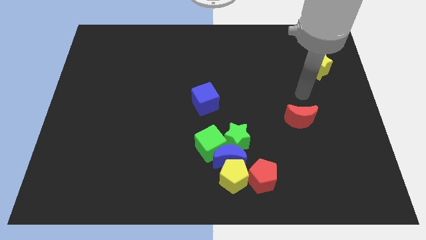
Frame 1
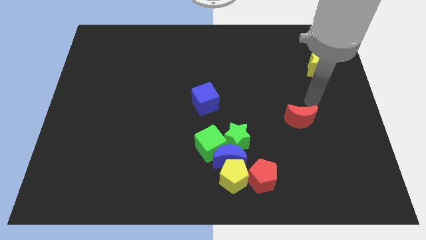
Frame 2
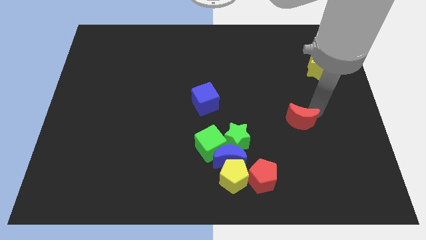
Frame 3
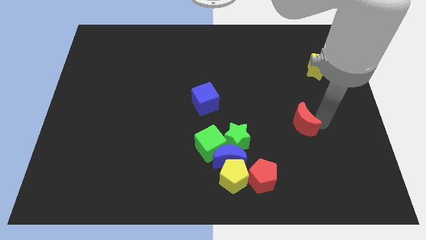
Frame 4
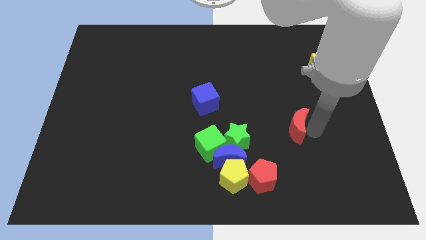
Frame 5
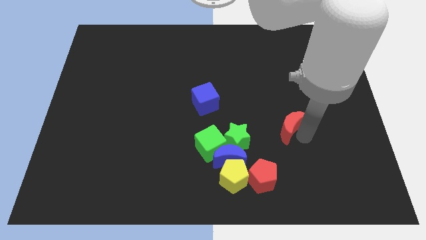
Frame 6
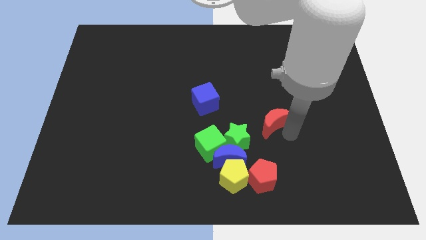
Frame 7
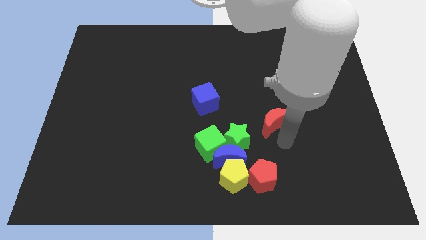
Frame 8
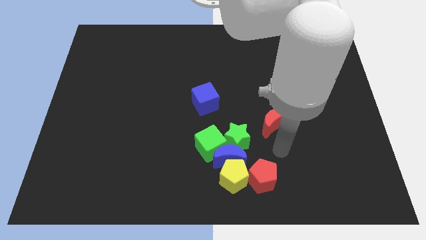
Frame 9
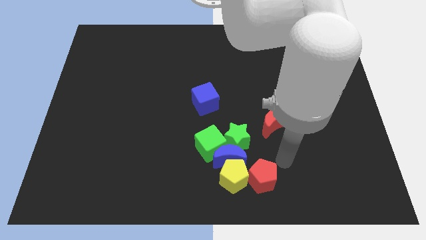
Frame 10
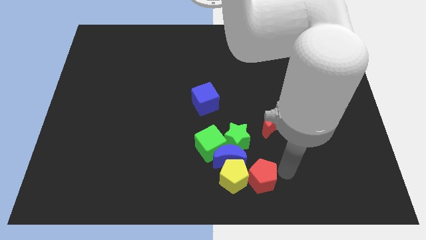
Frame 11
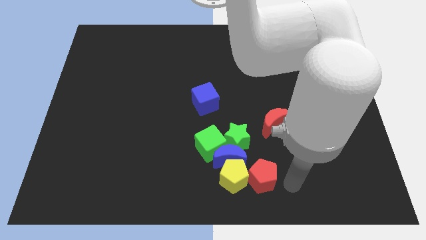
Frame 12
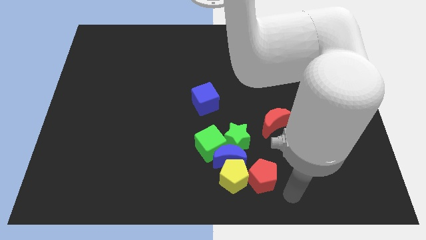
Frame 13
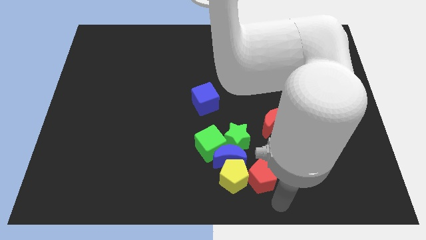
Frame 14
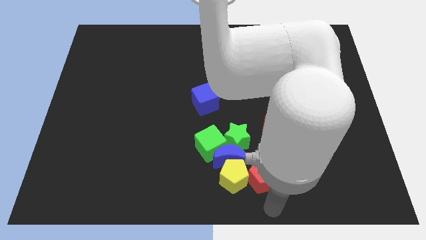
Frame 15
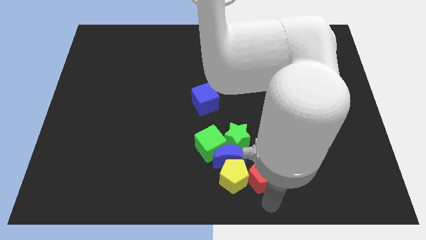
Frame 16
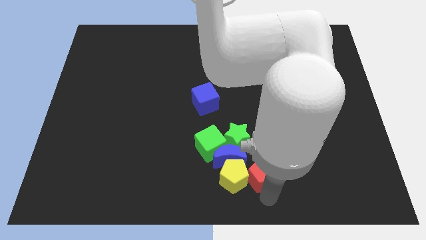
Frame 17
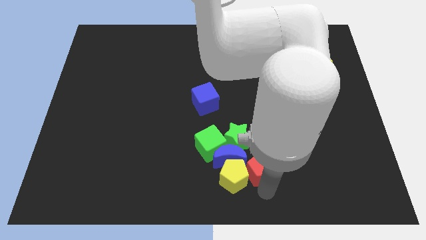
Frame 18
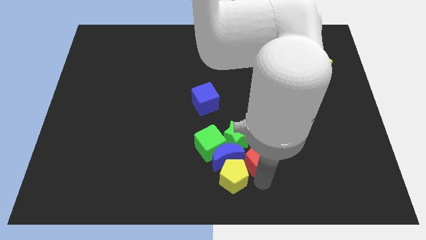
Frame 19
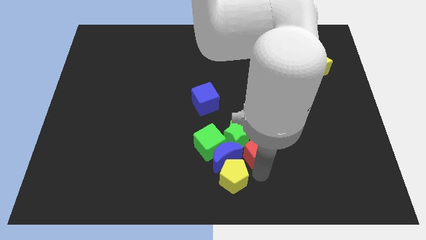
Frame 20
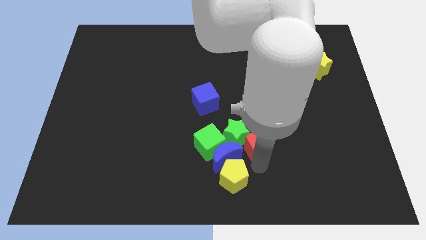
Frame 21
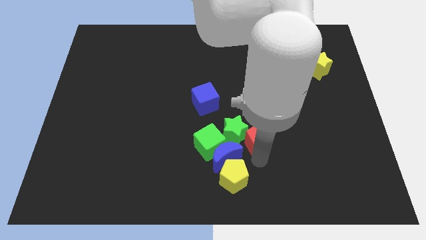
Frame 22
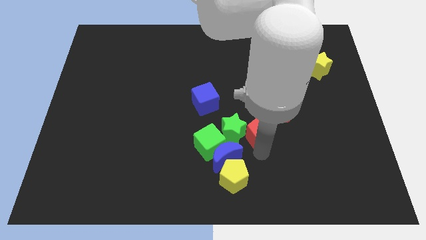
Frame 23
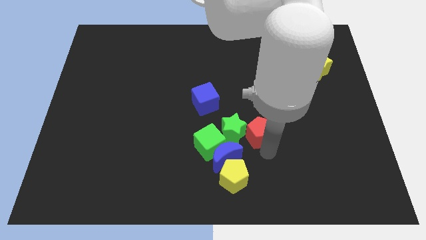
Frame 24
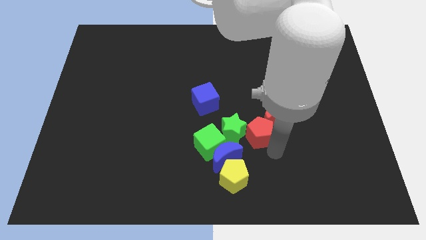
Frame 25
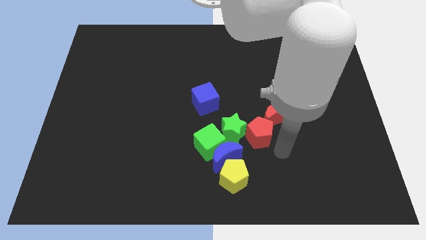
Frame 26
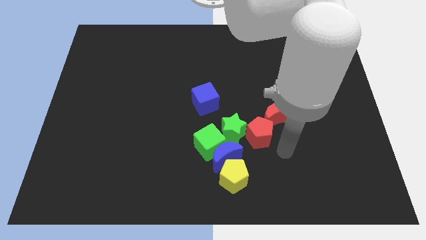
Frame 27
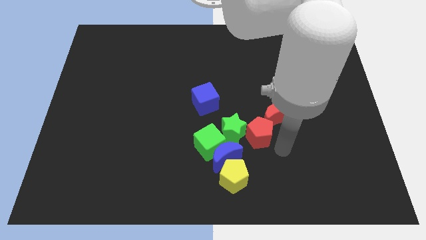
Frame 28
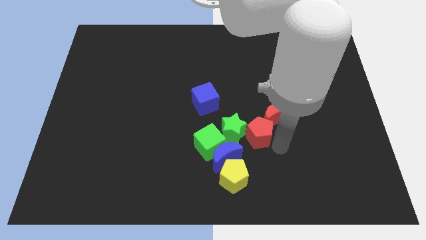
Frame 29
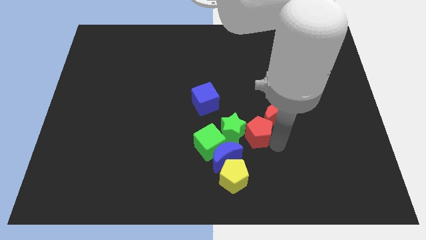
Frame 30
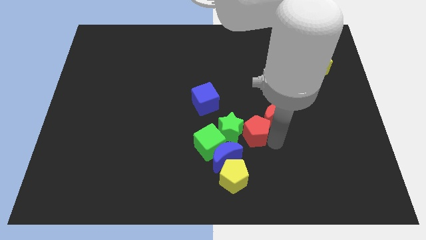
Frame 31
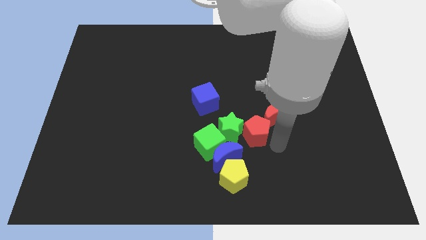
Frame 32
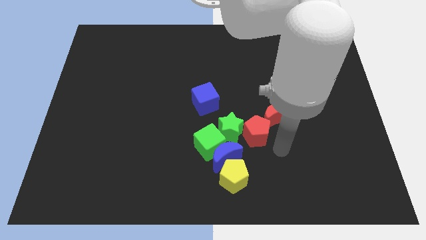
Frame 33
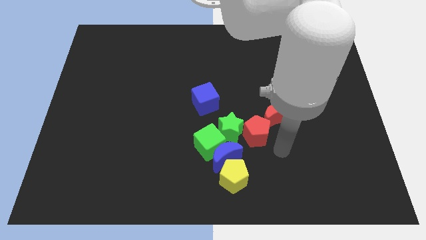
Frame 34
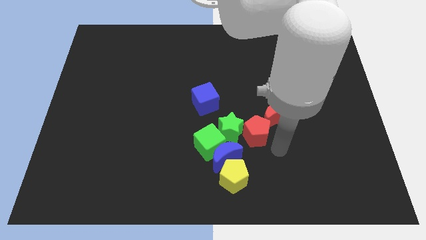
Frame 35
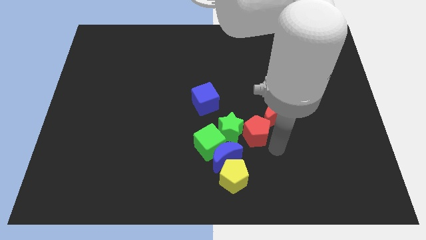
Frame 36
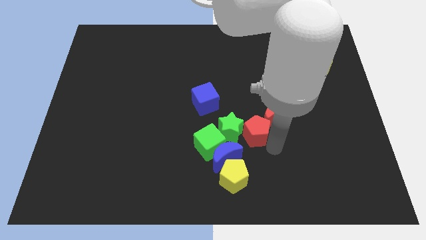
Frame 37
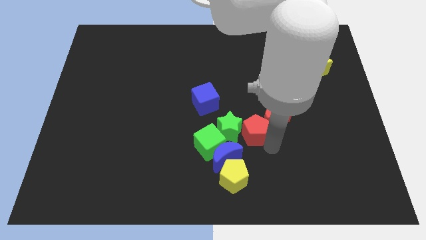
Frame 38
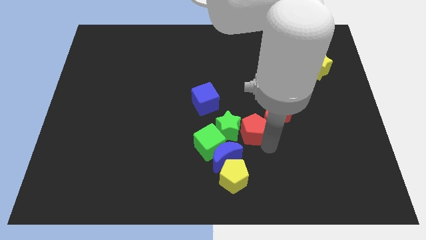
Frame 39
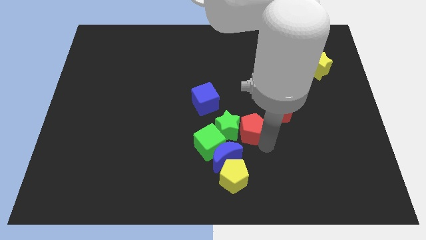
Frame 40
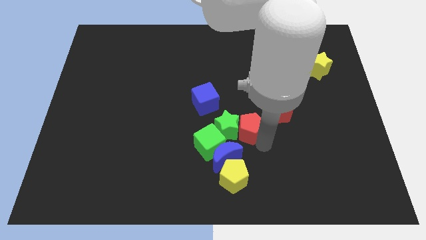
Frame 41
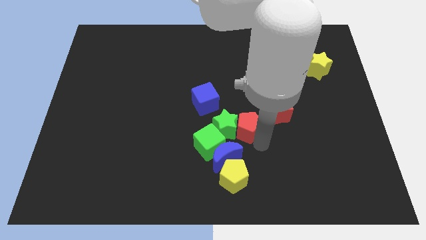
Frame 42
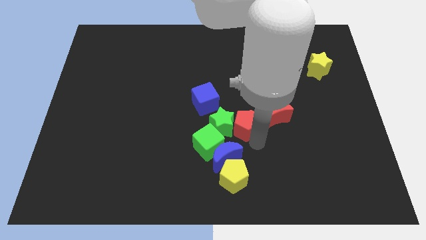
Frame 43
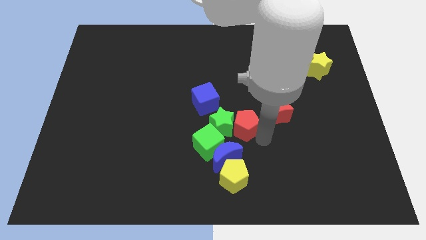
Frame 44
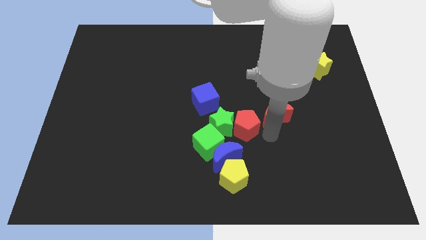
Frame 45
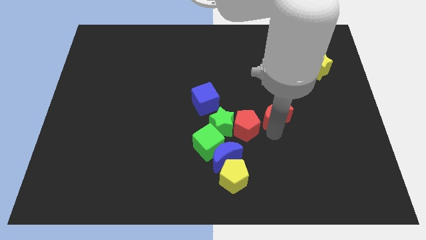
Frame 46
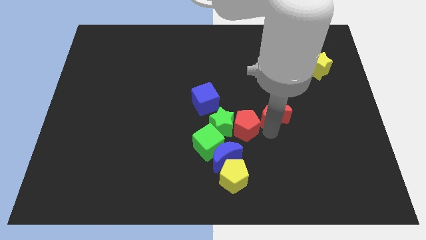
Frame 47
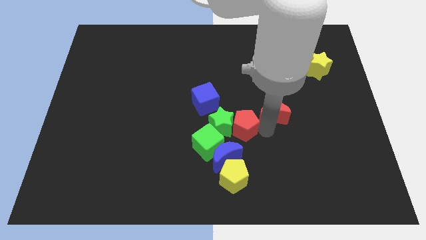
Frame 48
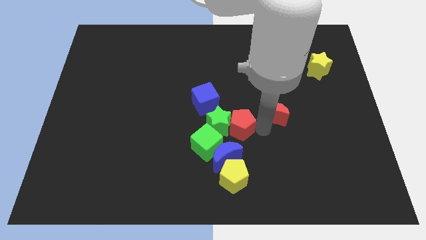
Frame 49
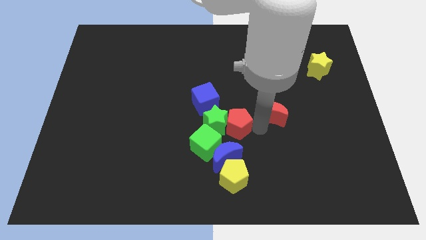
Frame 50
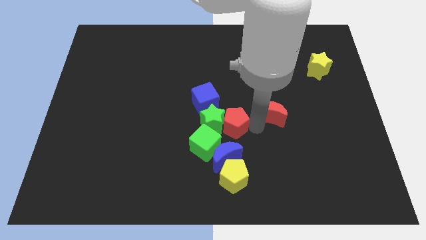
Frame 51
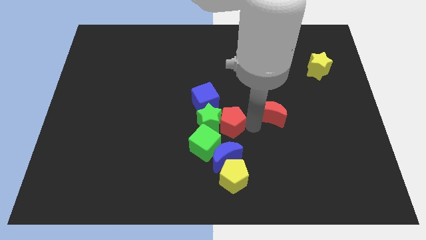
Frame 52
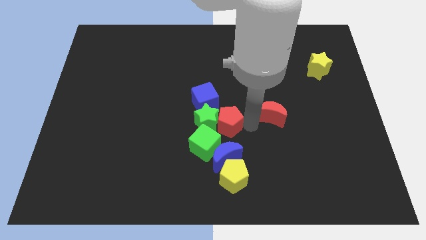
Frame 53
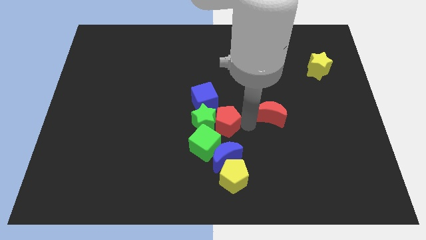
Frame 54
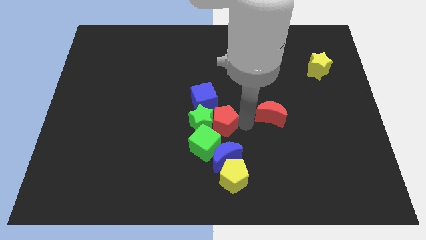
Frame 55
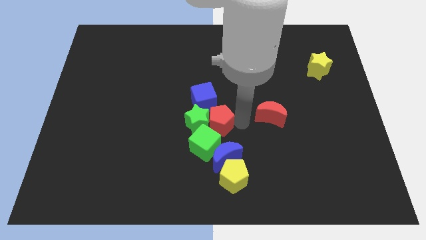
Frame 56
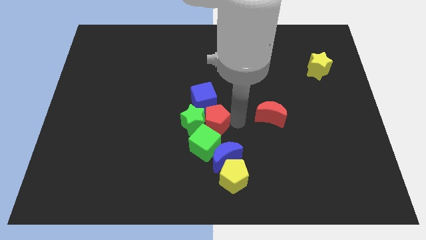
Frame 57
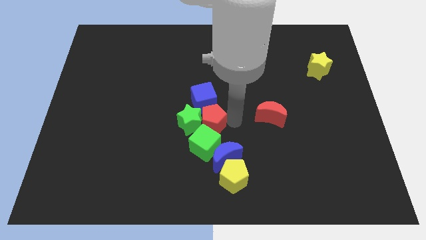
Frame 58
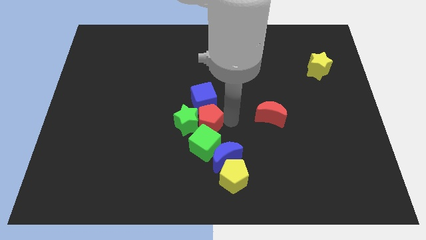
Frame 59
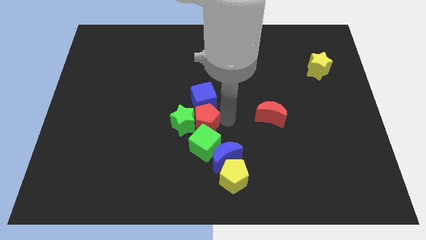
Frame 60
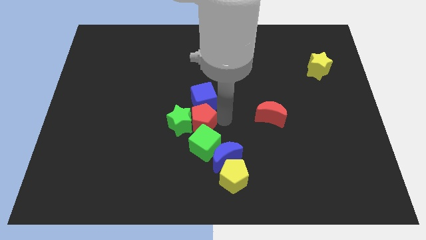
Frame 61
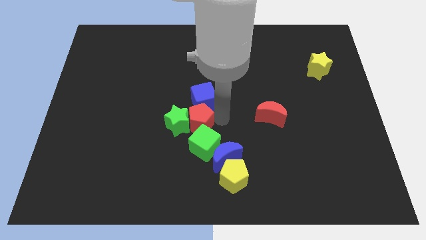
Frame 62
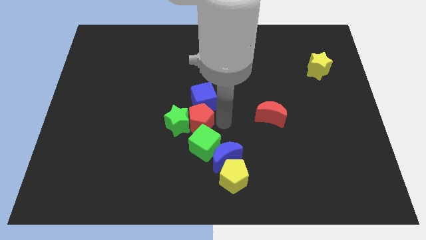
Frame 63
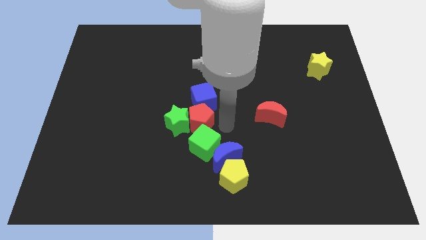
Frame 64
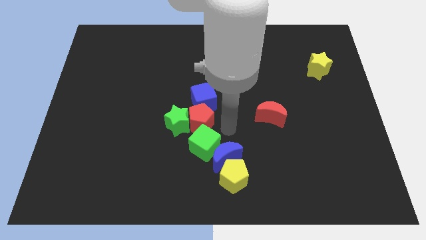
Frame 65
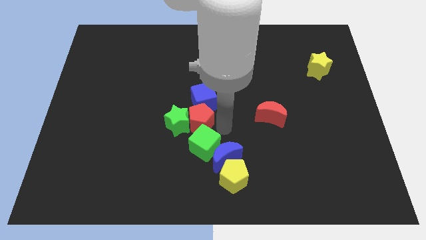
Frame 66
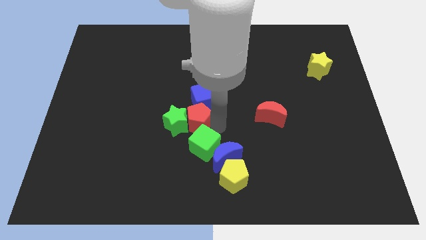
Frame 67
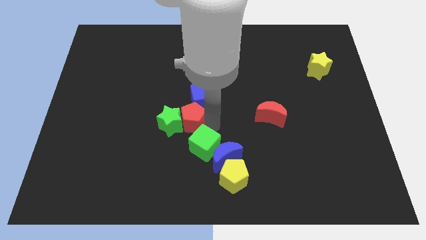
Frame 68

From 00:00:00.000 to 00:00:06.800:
slide the red pentagon upwards and to the left diagonally

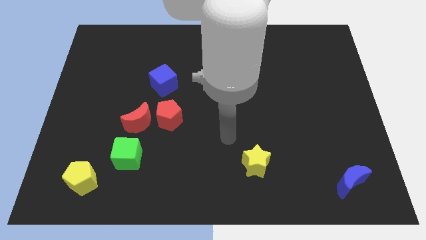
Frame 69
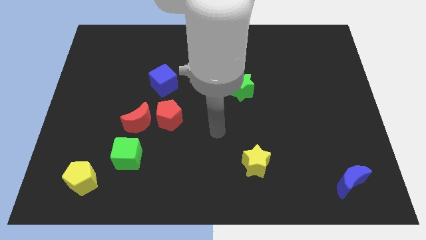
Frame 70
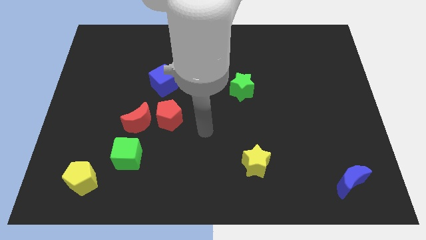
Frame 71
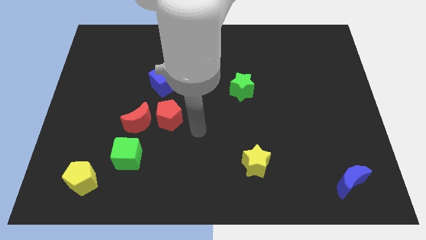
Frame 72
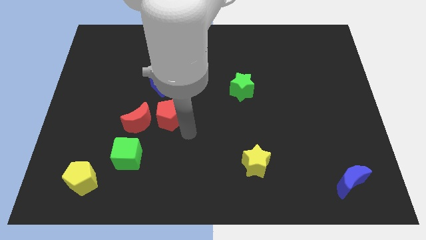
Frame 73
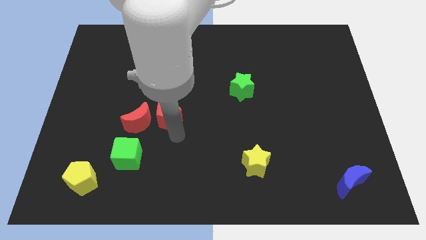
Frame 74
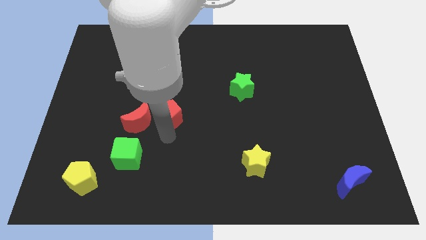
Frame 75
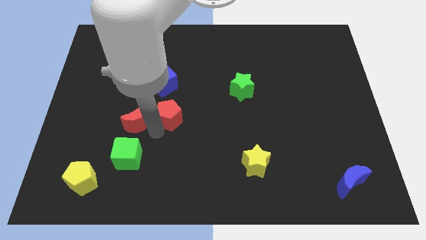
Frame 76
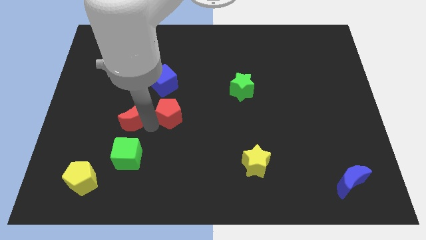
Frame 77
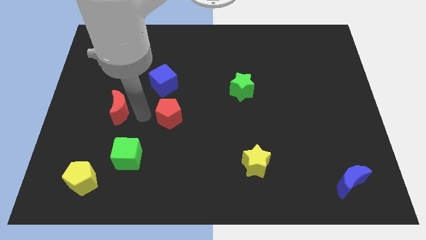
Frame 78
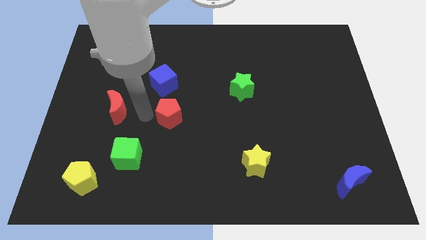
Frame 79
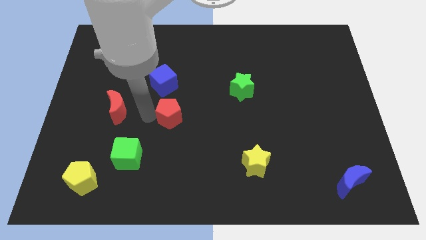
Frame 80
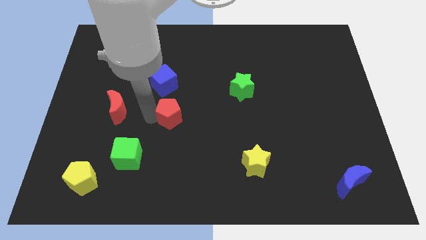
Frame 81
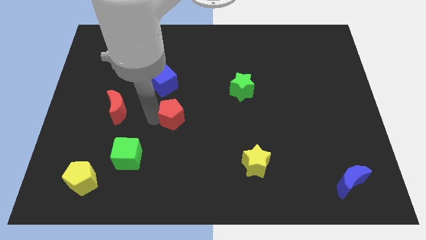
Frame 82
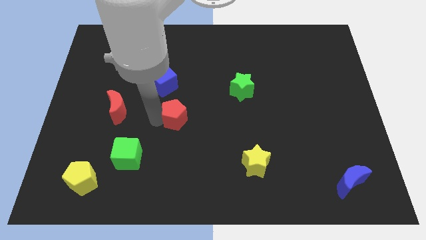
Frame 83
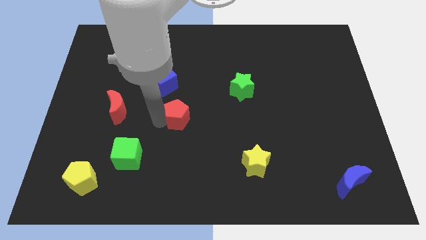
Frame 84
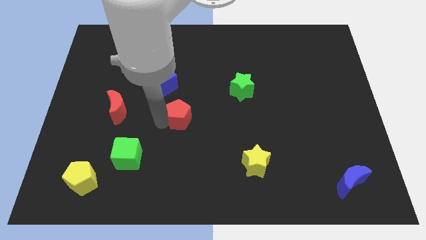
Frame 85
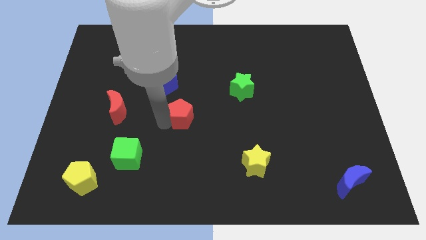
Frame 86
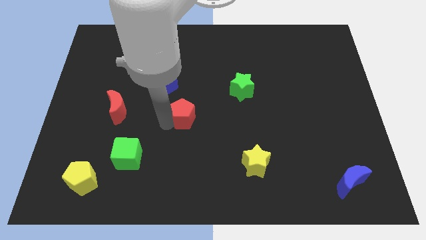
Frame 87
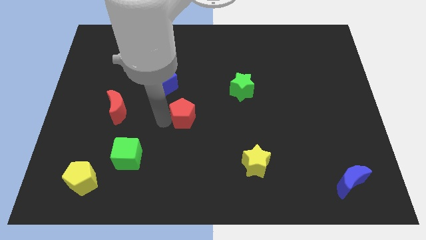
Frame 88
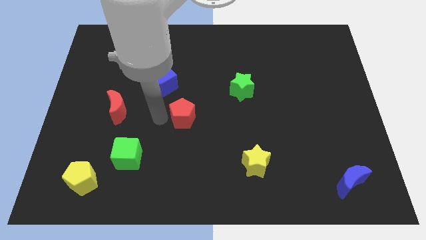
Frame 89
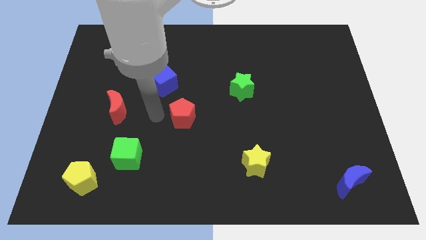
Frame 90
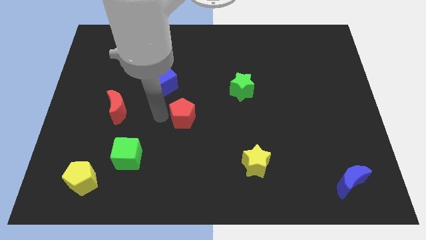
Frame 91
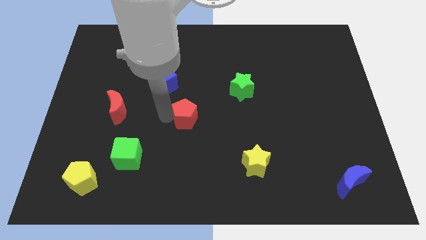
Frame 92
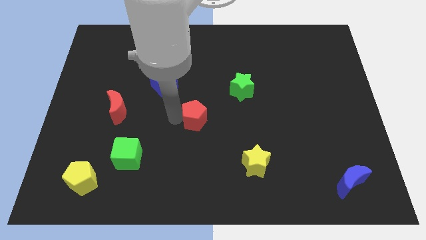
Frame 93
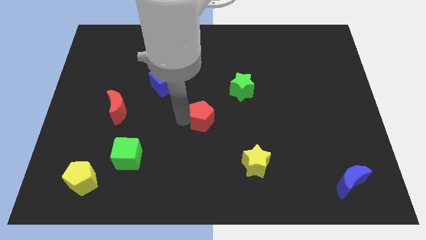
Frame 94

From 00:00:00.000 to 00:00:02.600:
push the red pentagon to the right slightly
